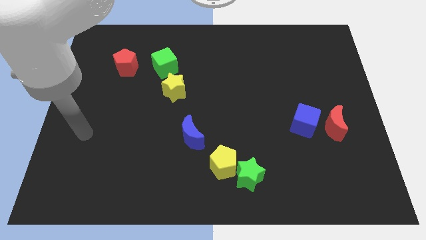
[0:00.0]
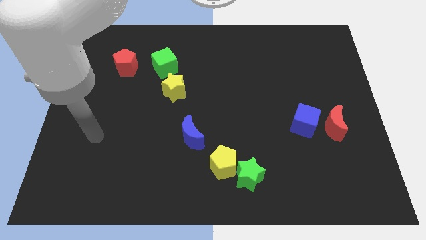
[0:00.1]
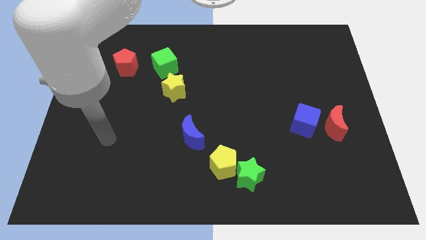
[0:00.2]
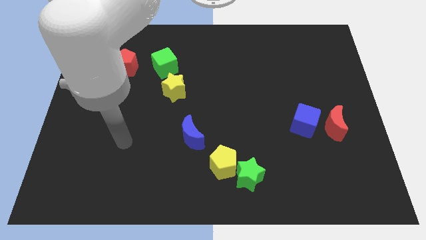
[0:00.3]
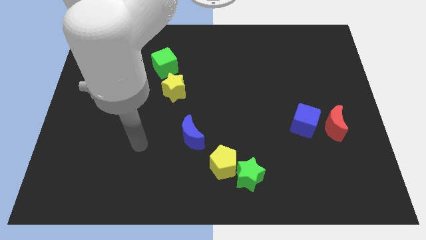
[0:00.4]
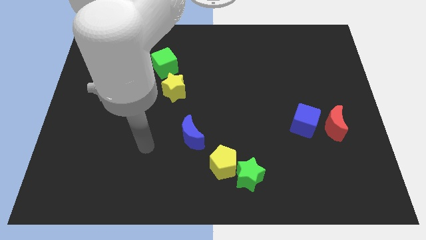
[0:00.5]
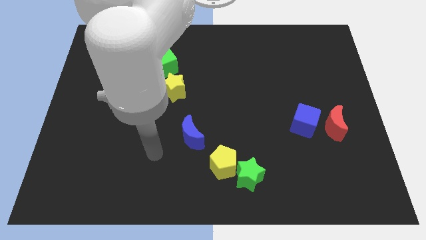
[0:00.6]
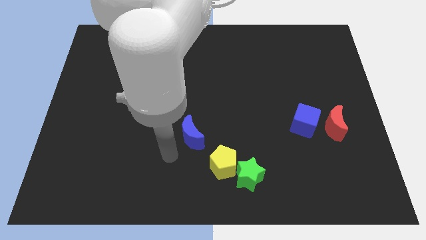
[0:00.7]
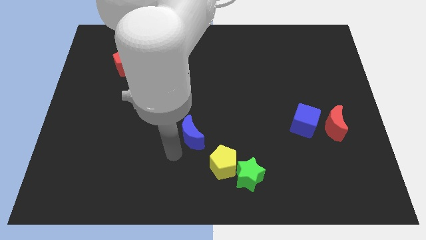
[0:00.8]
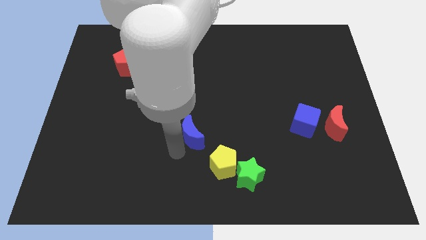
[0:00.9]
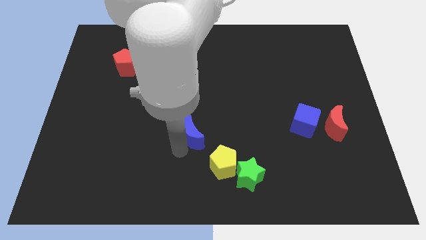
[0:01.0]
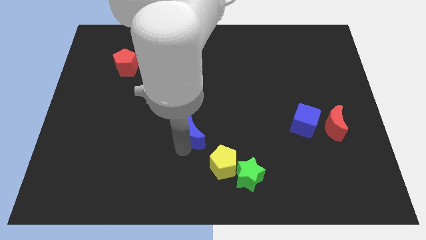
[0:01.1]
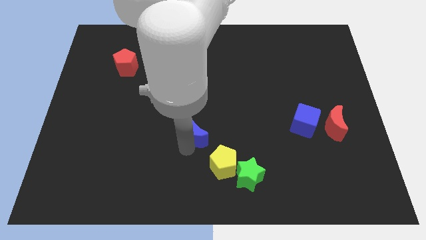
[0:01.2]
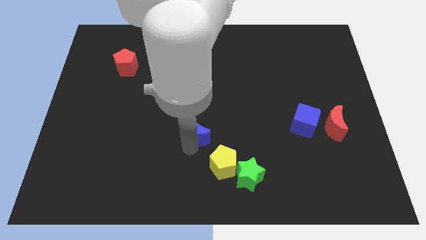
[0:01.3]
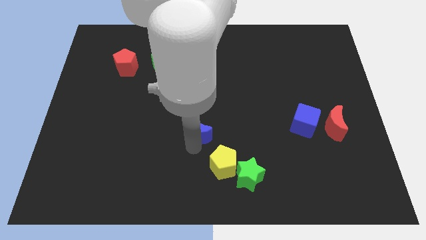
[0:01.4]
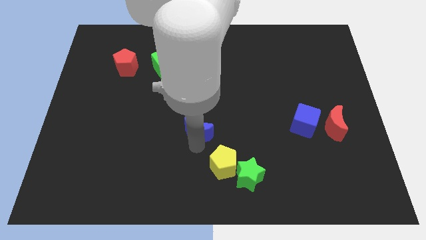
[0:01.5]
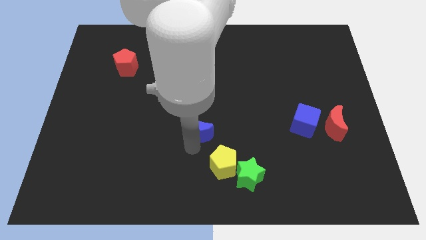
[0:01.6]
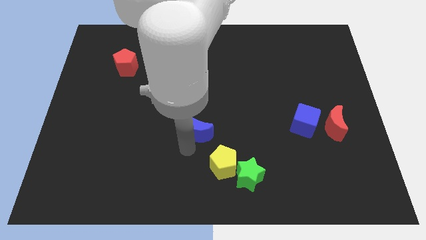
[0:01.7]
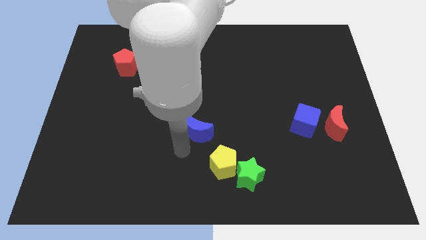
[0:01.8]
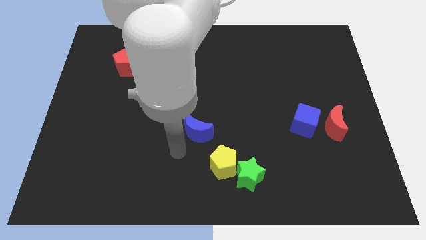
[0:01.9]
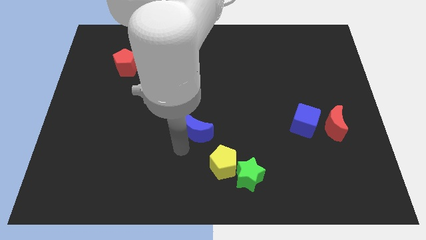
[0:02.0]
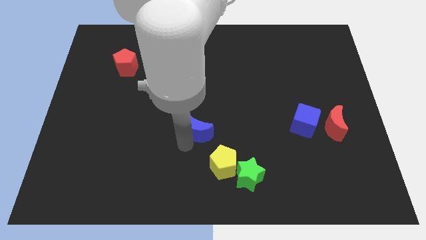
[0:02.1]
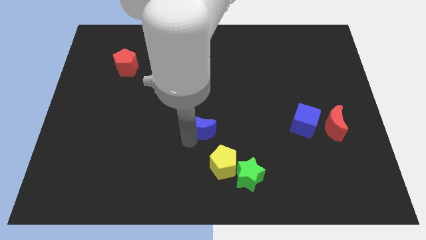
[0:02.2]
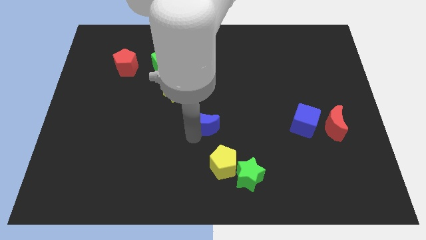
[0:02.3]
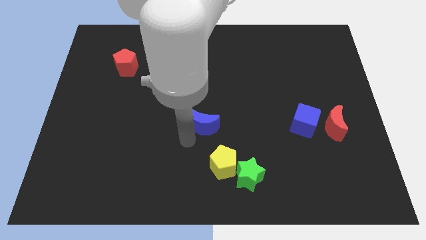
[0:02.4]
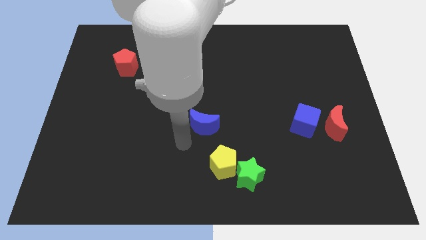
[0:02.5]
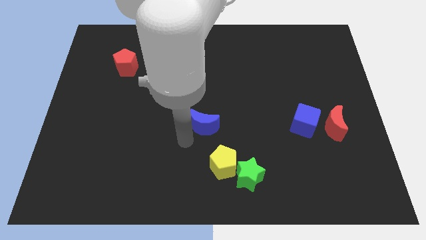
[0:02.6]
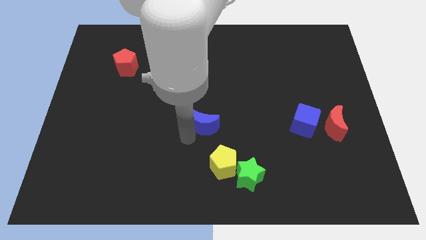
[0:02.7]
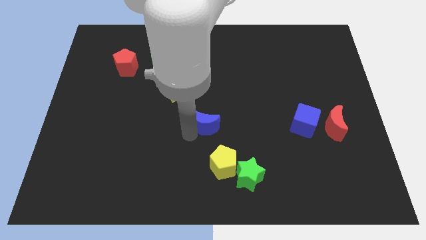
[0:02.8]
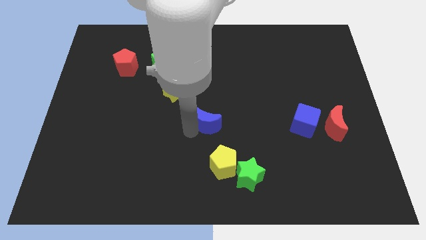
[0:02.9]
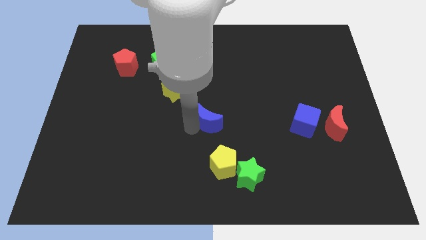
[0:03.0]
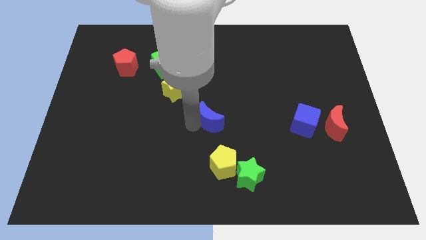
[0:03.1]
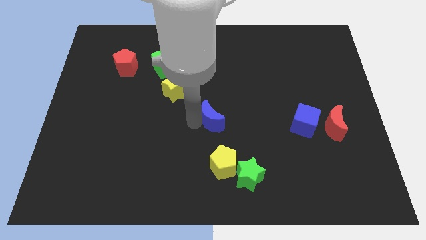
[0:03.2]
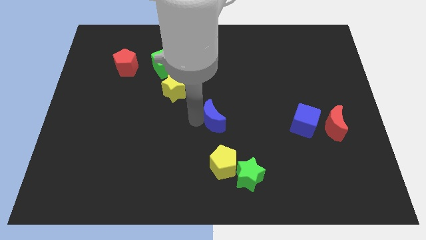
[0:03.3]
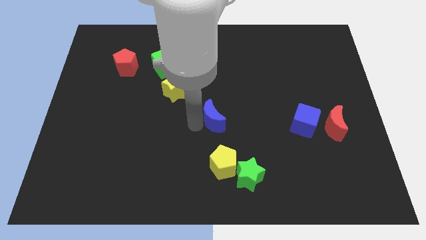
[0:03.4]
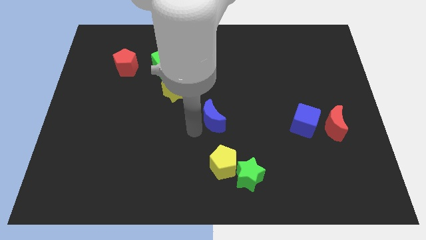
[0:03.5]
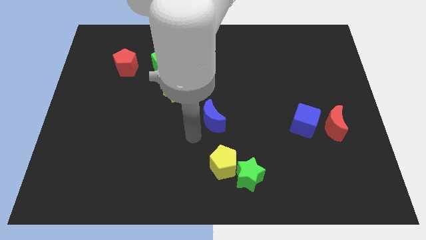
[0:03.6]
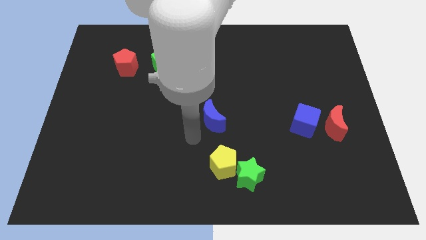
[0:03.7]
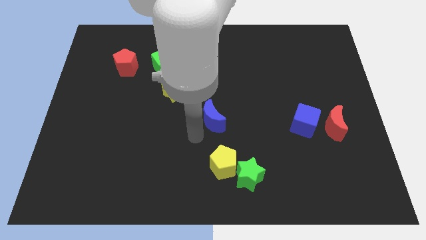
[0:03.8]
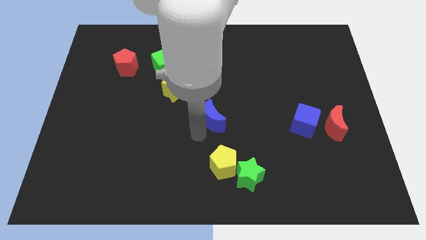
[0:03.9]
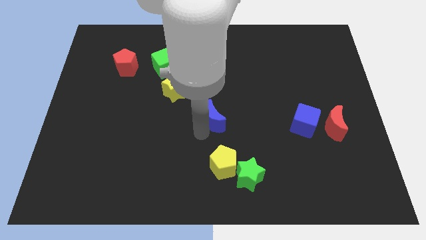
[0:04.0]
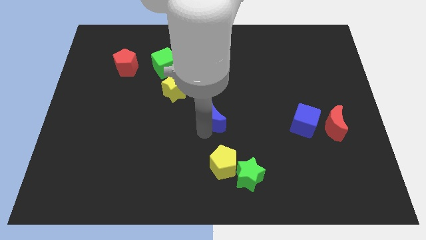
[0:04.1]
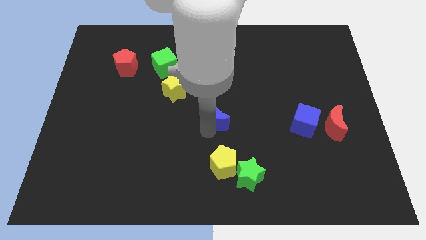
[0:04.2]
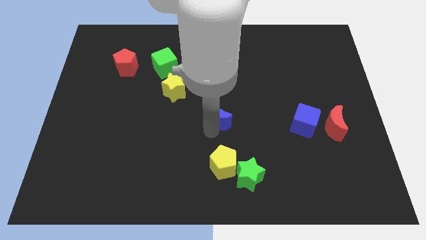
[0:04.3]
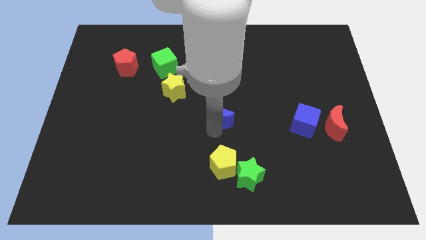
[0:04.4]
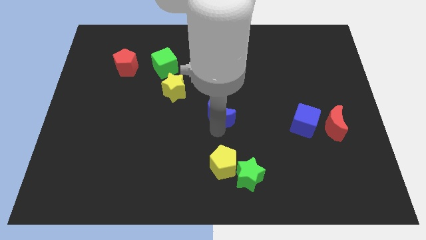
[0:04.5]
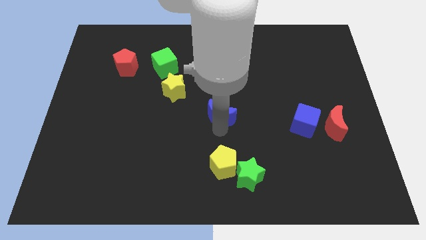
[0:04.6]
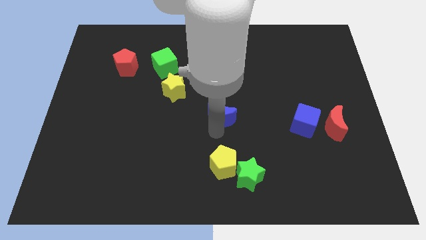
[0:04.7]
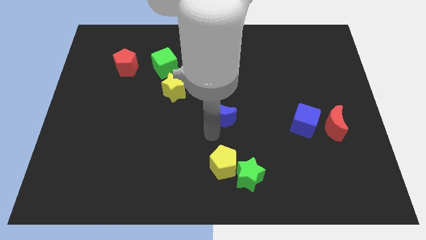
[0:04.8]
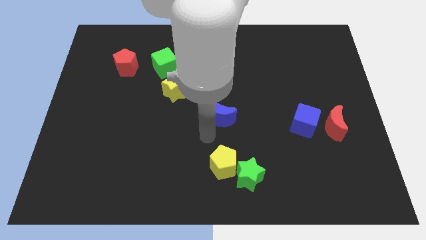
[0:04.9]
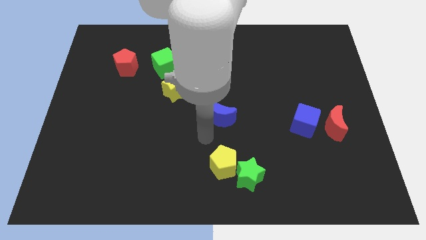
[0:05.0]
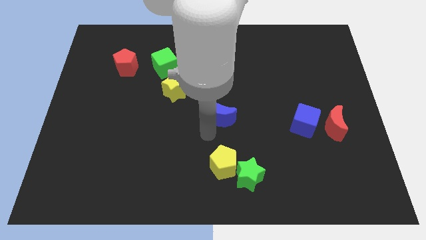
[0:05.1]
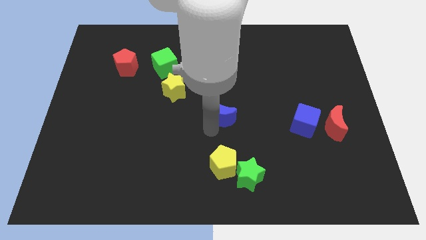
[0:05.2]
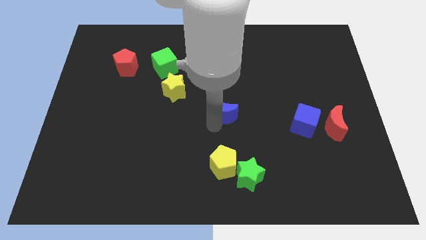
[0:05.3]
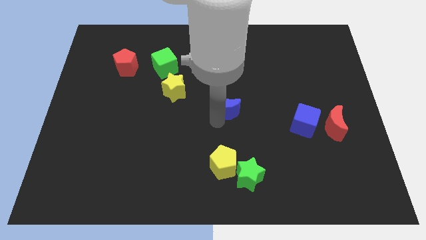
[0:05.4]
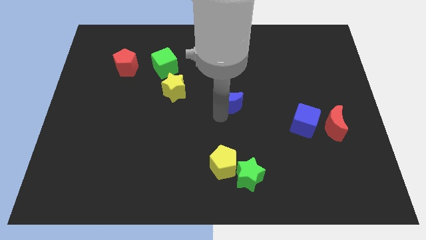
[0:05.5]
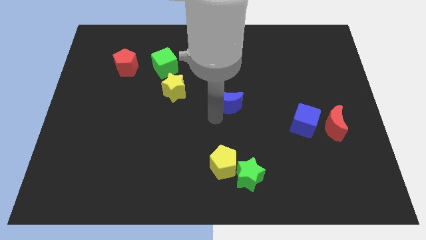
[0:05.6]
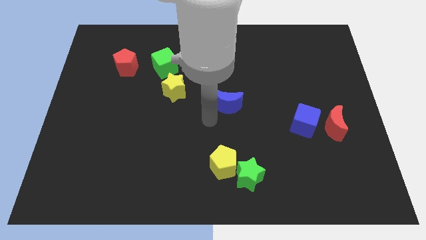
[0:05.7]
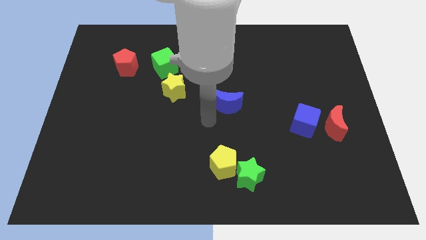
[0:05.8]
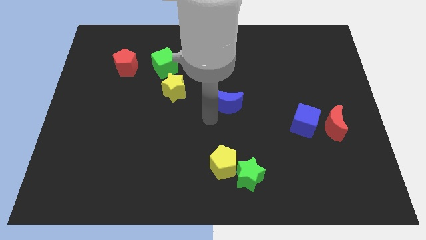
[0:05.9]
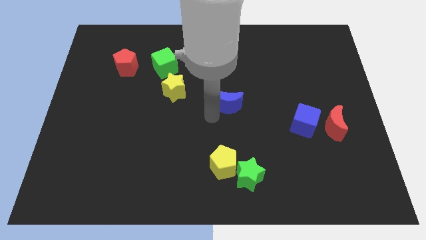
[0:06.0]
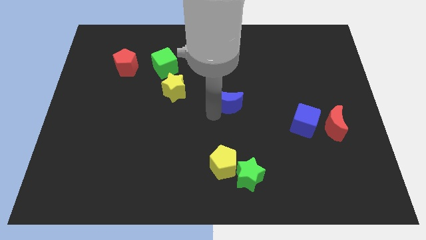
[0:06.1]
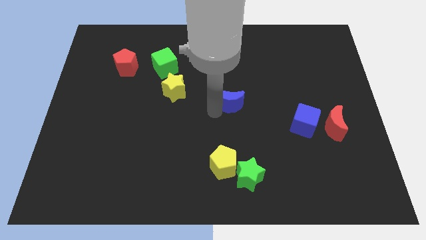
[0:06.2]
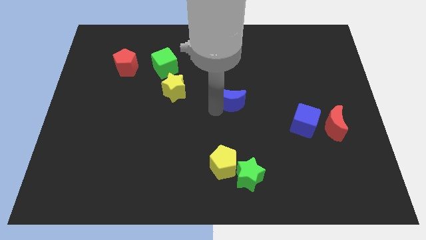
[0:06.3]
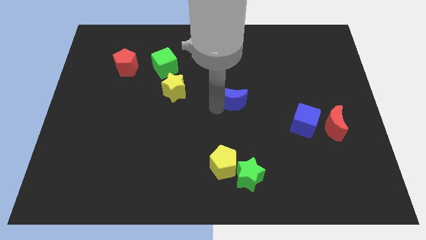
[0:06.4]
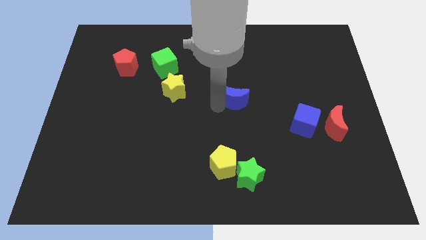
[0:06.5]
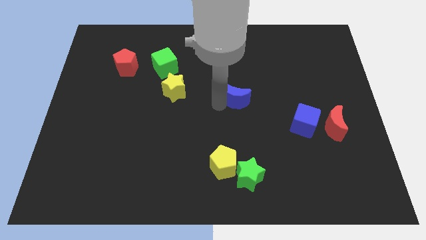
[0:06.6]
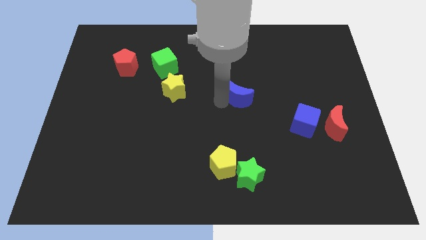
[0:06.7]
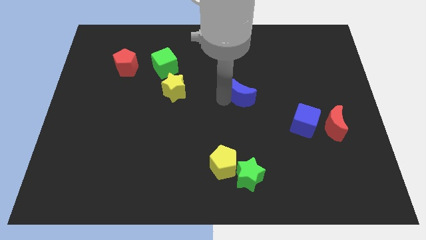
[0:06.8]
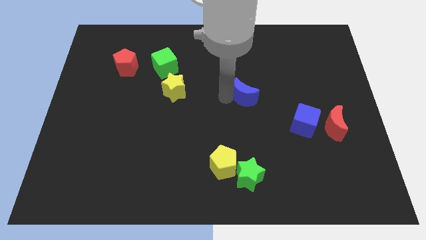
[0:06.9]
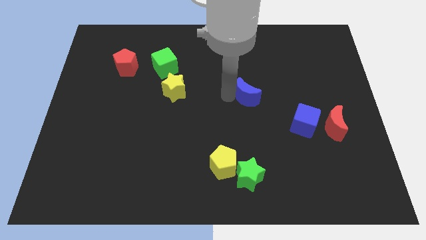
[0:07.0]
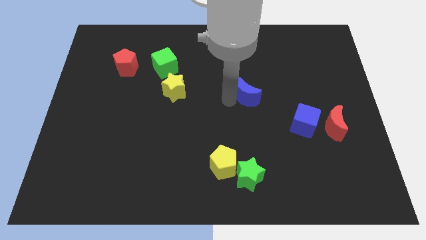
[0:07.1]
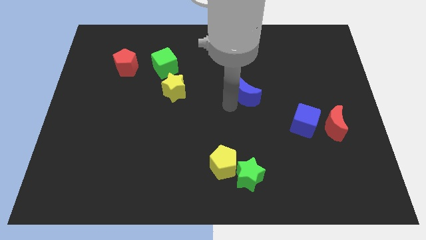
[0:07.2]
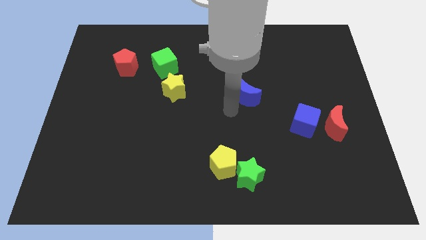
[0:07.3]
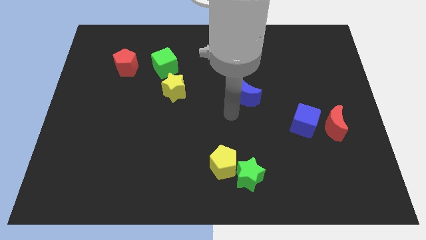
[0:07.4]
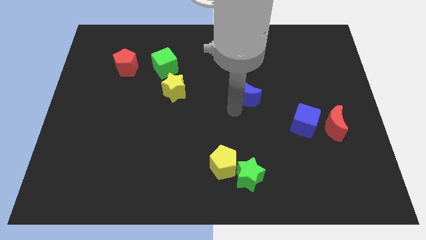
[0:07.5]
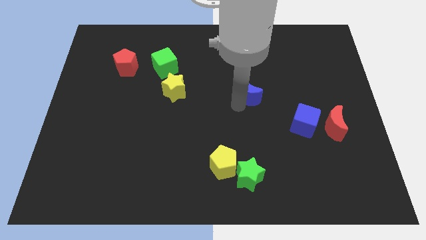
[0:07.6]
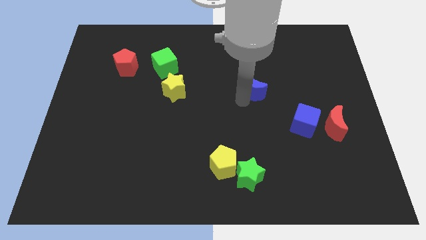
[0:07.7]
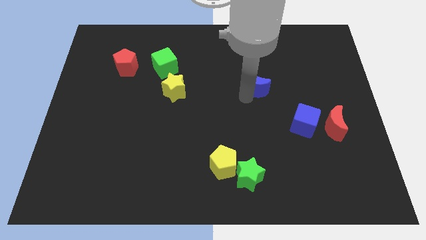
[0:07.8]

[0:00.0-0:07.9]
move the blue moon up and to the right
